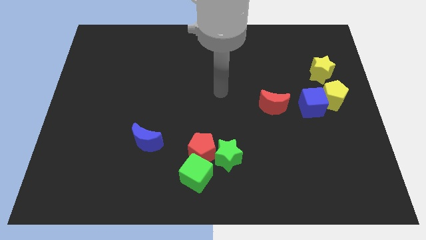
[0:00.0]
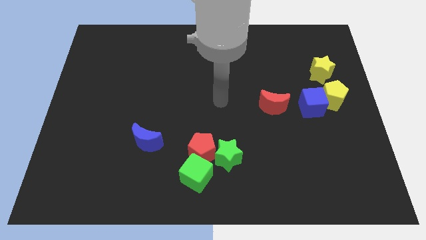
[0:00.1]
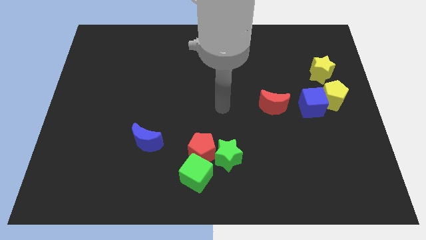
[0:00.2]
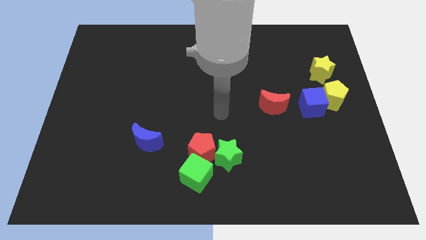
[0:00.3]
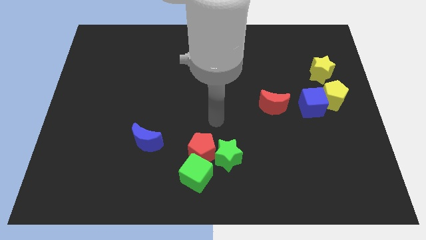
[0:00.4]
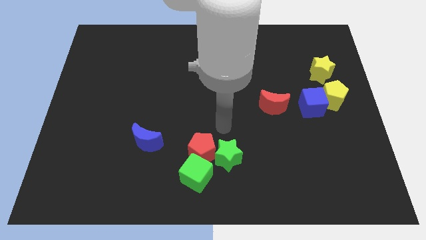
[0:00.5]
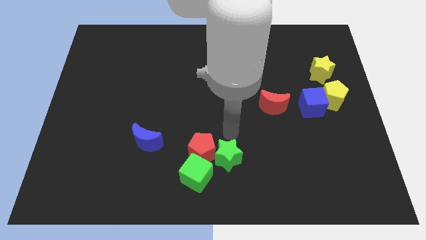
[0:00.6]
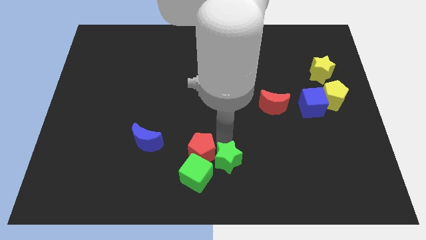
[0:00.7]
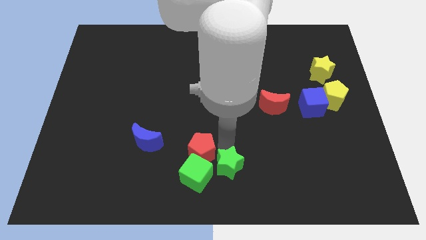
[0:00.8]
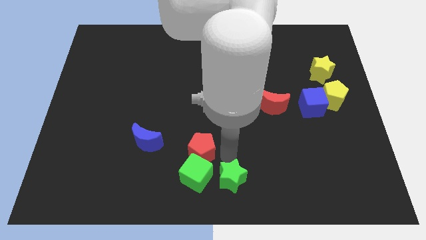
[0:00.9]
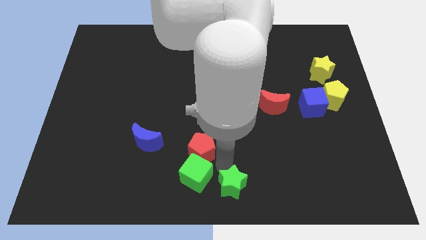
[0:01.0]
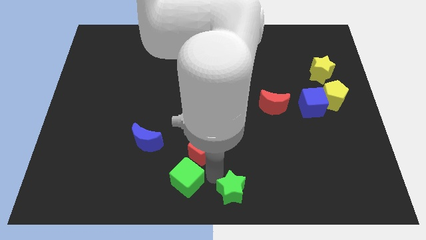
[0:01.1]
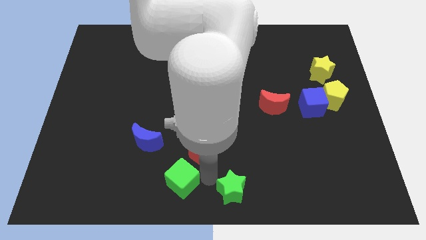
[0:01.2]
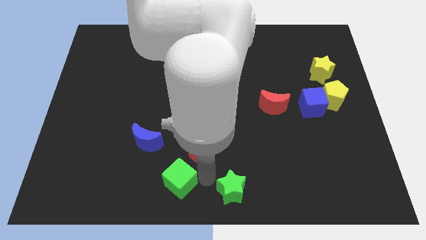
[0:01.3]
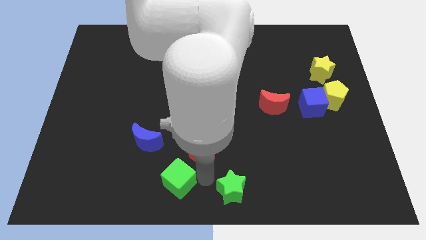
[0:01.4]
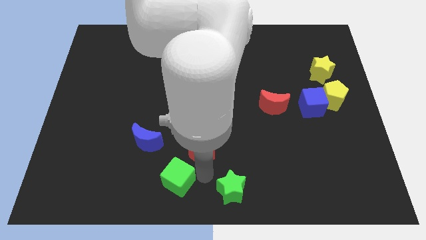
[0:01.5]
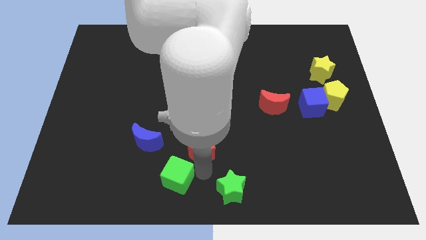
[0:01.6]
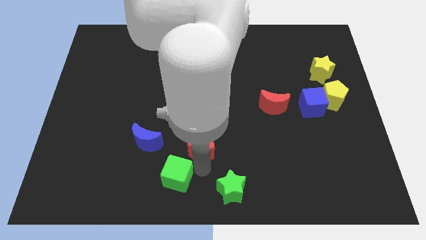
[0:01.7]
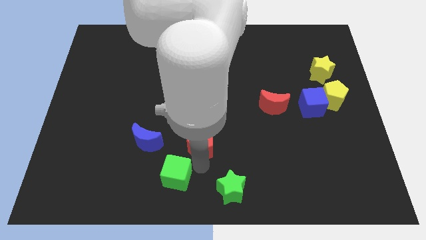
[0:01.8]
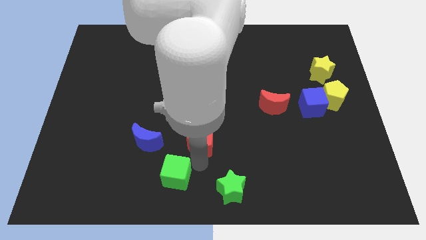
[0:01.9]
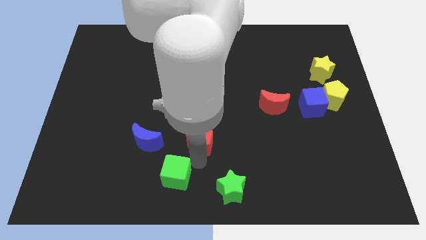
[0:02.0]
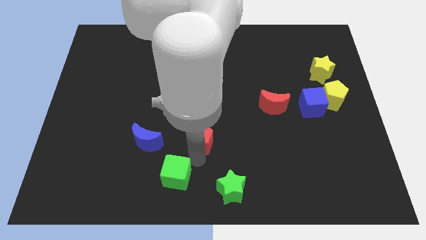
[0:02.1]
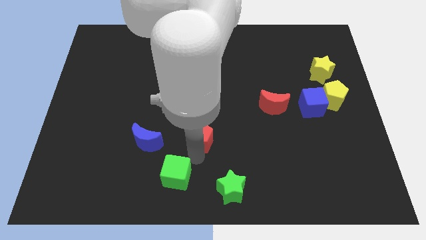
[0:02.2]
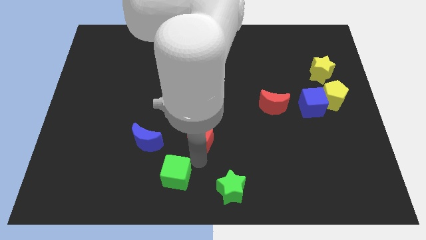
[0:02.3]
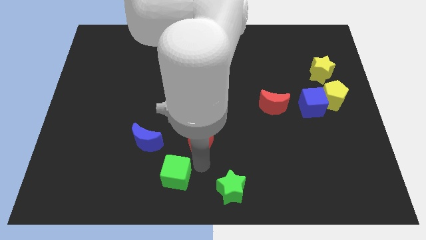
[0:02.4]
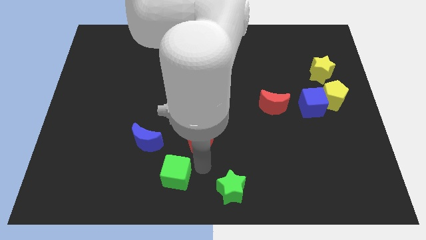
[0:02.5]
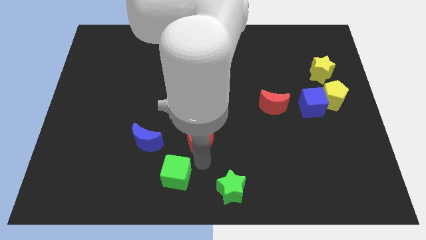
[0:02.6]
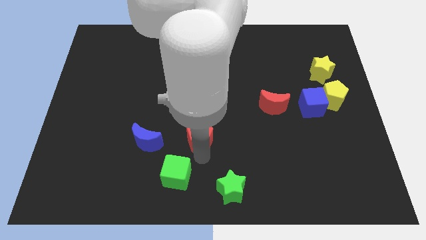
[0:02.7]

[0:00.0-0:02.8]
move the red pentagon away from the green star and green cube

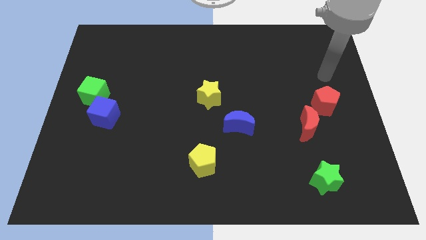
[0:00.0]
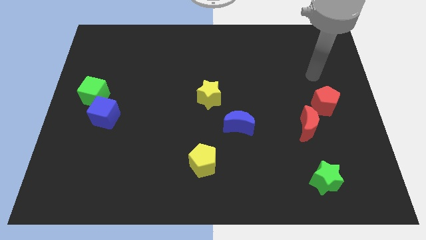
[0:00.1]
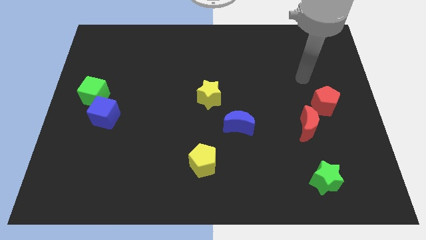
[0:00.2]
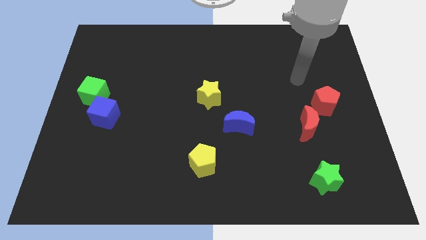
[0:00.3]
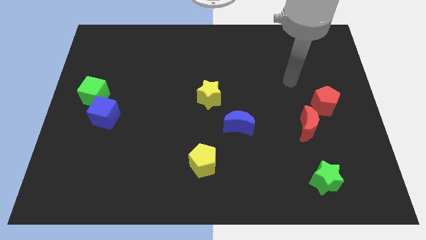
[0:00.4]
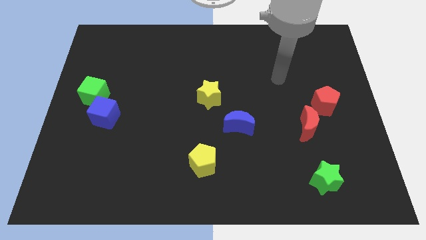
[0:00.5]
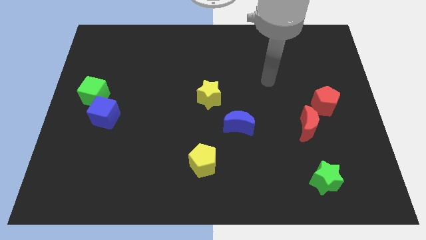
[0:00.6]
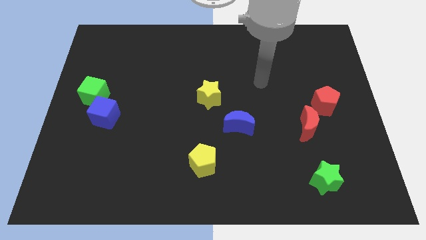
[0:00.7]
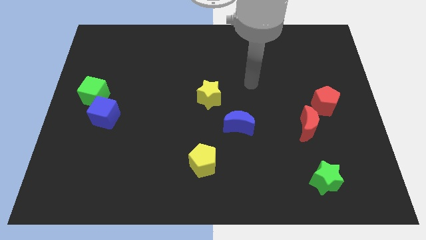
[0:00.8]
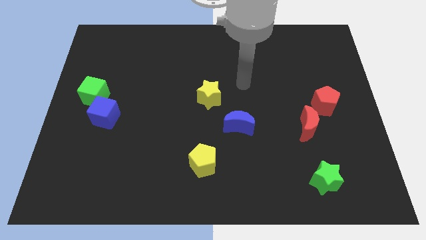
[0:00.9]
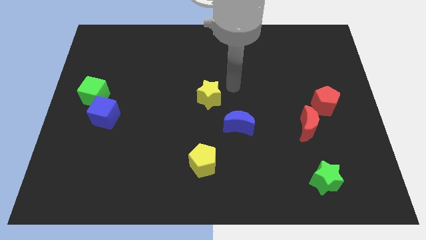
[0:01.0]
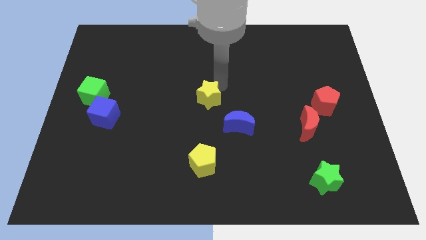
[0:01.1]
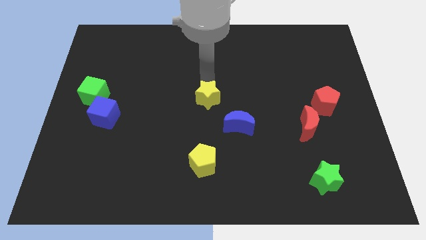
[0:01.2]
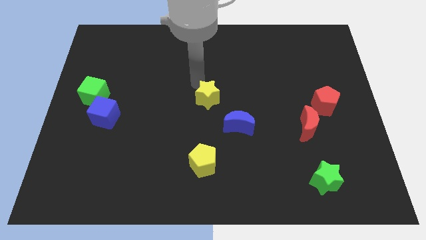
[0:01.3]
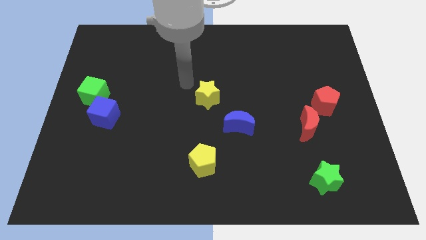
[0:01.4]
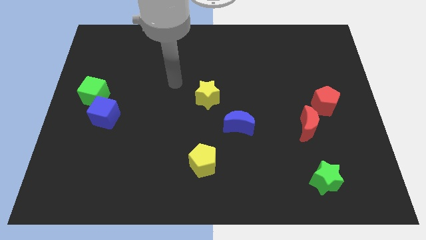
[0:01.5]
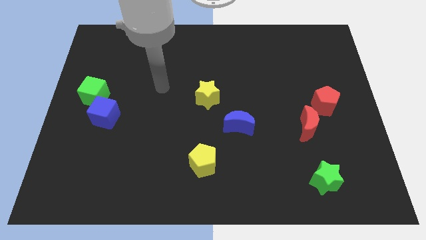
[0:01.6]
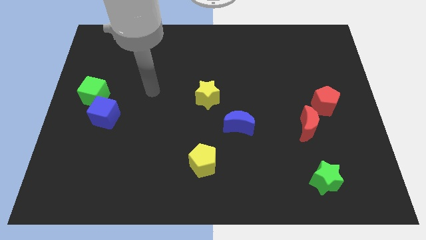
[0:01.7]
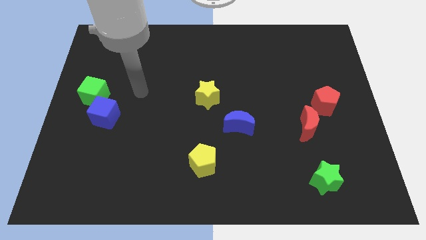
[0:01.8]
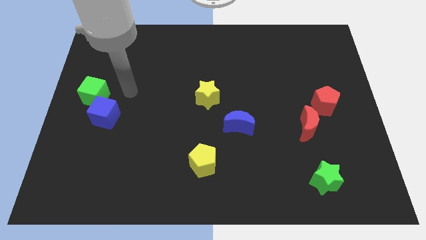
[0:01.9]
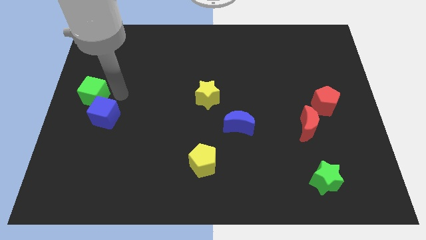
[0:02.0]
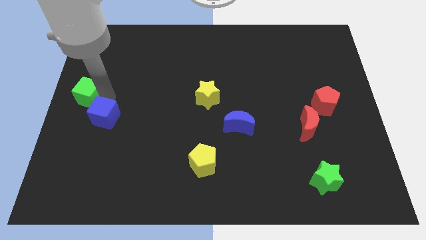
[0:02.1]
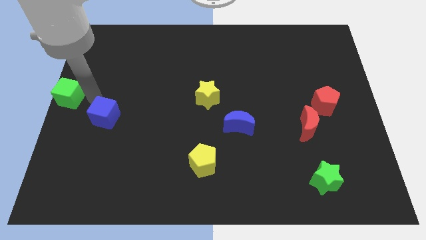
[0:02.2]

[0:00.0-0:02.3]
separate the blue cube from the green cube

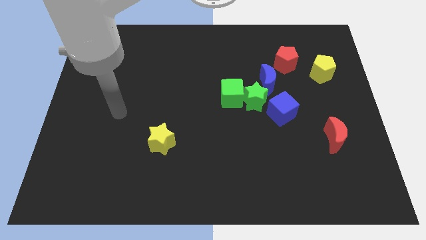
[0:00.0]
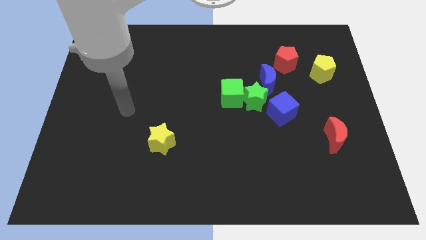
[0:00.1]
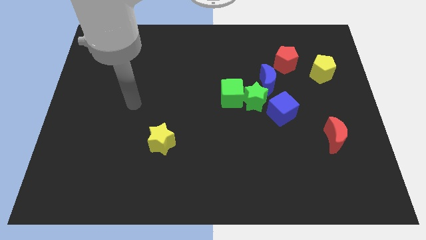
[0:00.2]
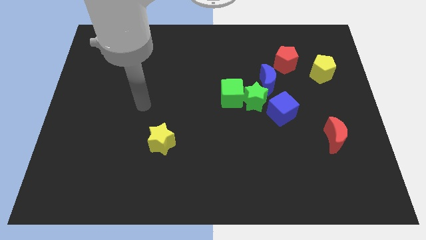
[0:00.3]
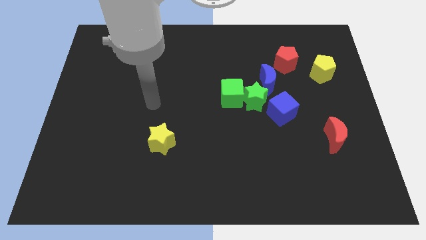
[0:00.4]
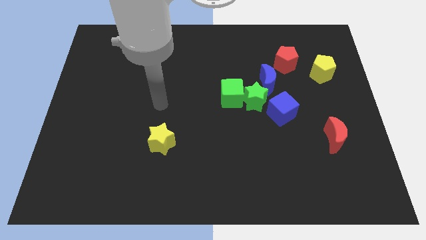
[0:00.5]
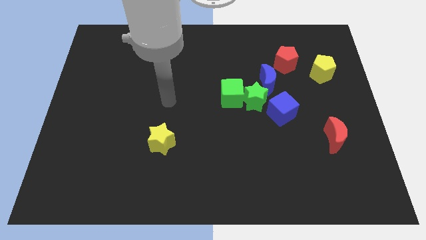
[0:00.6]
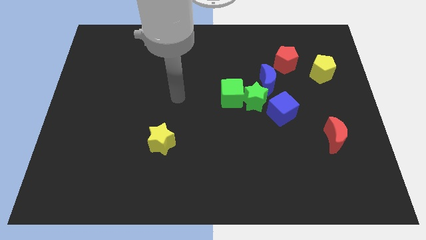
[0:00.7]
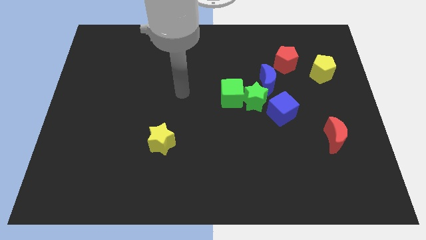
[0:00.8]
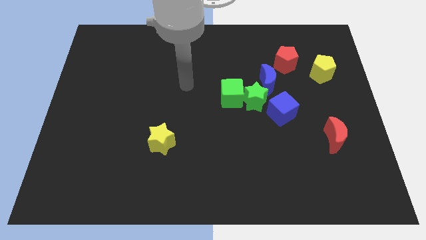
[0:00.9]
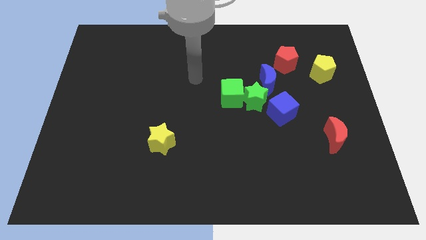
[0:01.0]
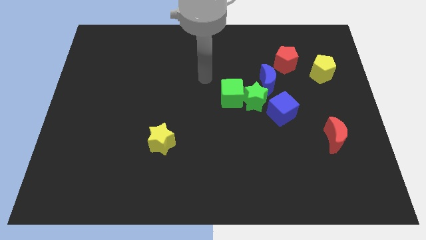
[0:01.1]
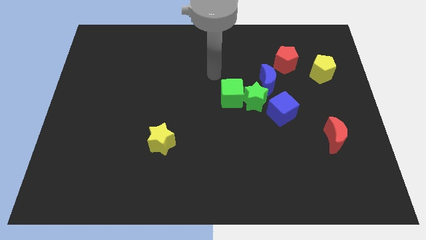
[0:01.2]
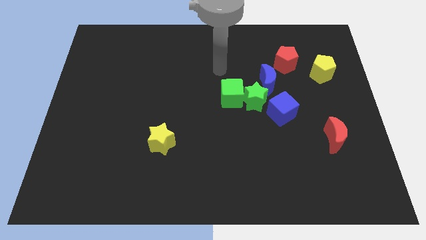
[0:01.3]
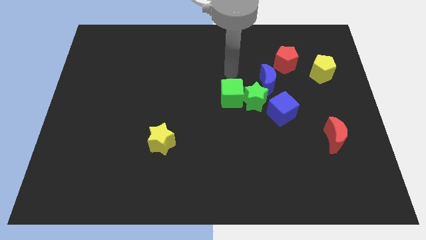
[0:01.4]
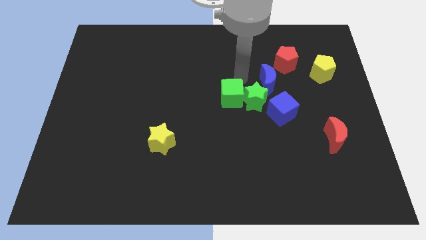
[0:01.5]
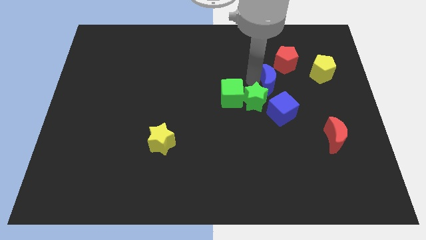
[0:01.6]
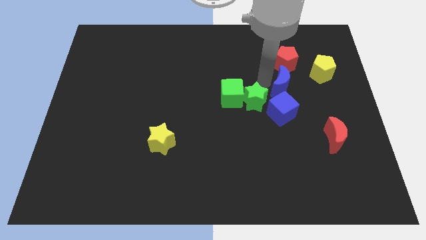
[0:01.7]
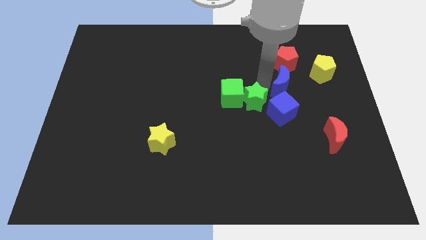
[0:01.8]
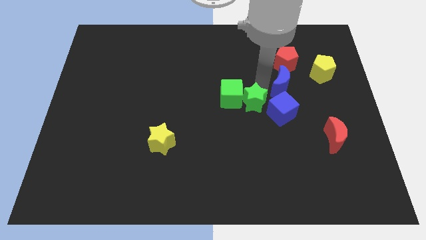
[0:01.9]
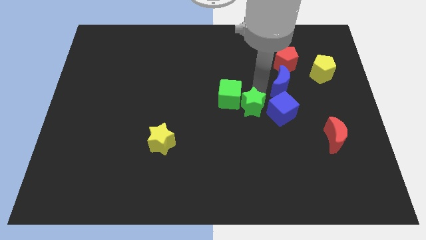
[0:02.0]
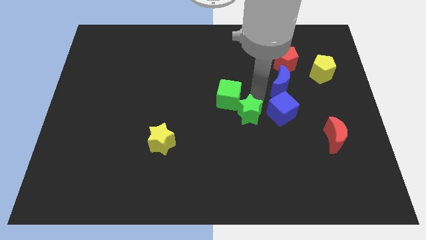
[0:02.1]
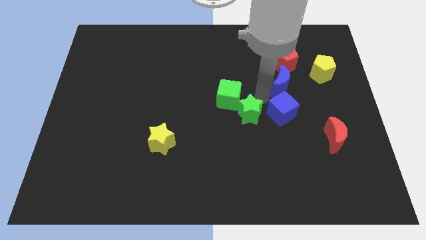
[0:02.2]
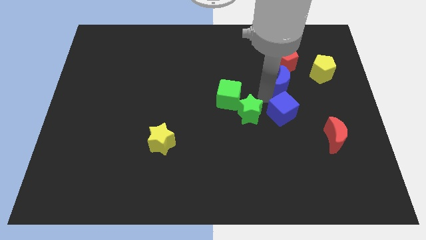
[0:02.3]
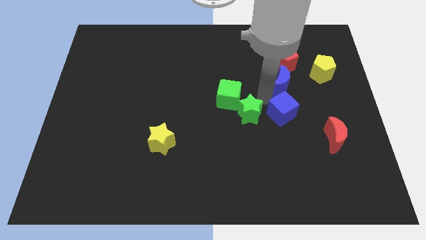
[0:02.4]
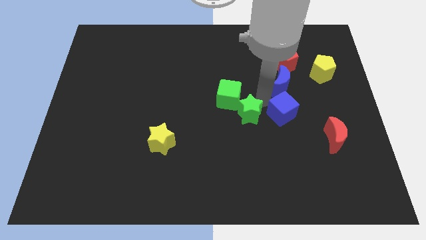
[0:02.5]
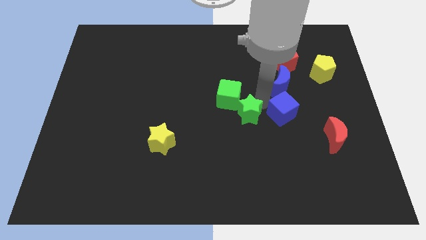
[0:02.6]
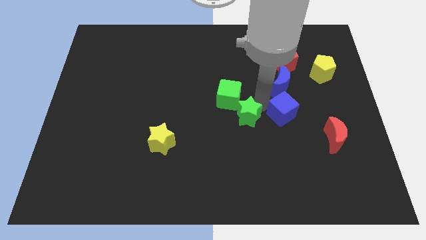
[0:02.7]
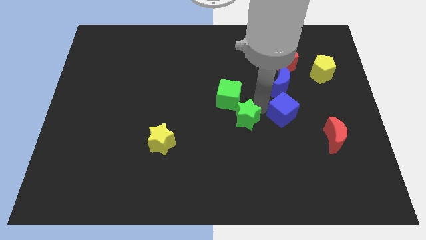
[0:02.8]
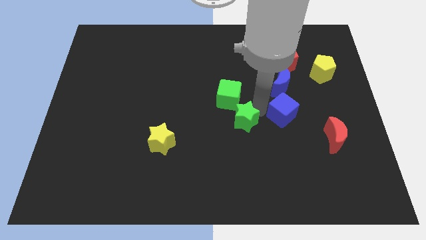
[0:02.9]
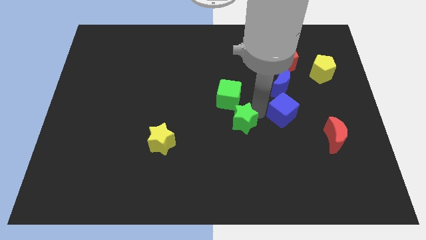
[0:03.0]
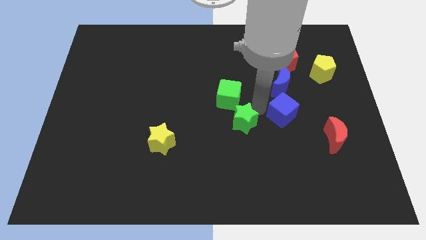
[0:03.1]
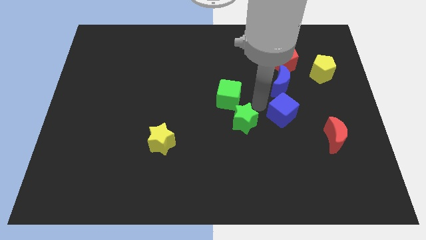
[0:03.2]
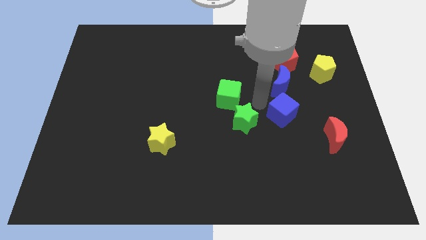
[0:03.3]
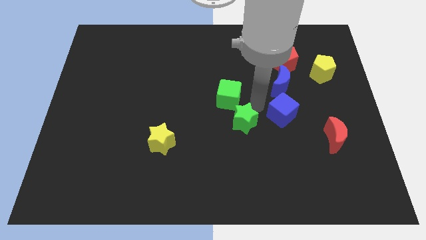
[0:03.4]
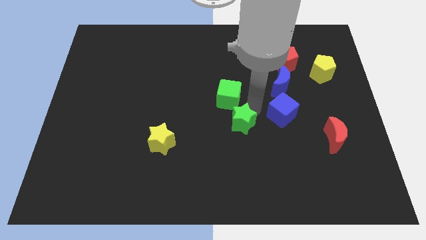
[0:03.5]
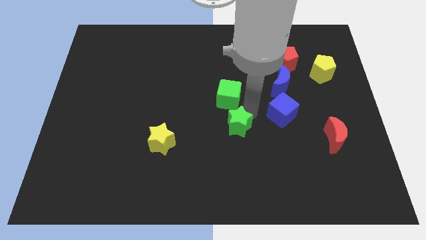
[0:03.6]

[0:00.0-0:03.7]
move the green star away from the green cube, blue moon, and blue cube

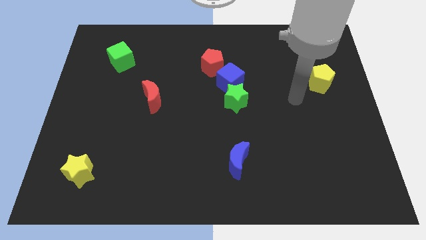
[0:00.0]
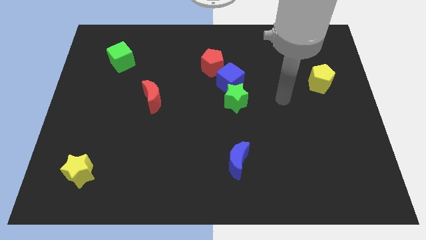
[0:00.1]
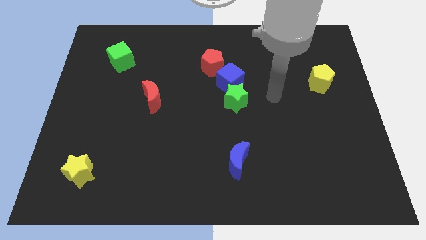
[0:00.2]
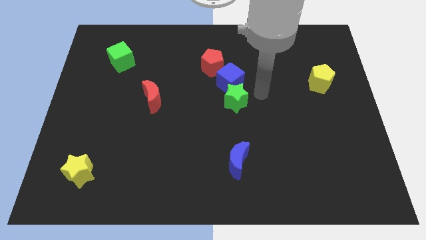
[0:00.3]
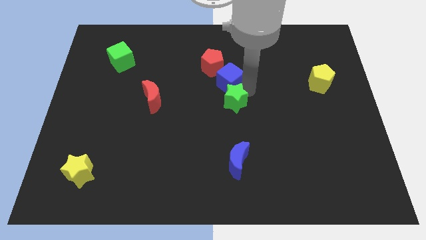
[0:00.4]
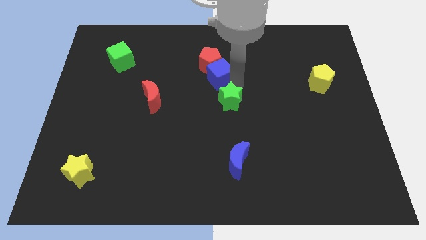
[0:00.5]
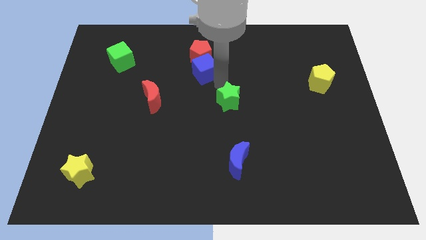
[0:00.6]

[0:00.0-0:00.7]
move the green star away from the blue cube
